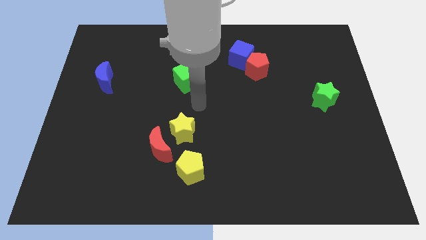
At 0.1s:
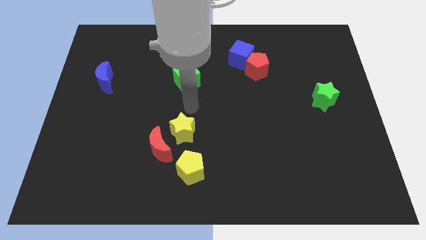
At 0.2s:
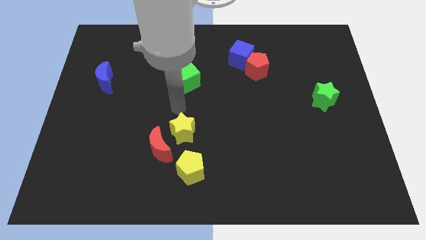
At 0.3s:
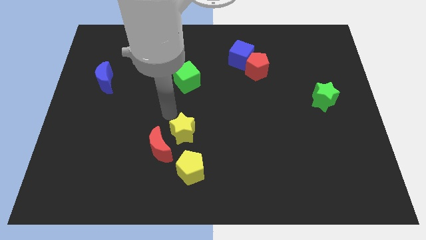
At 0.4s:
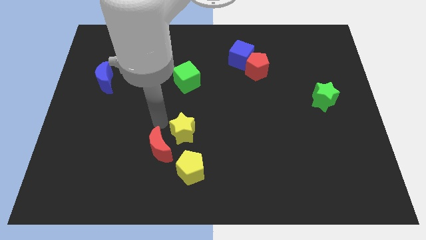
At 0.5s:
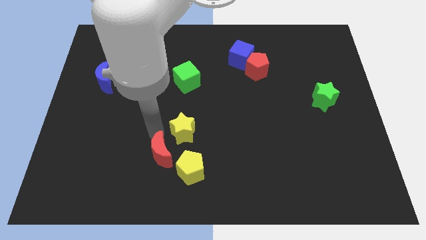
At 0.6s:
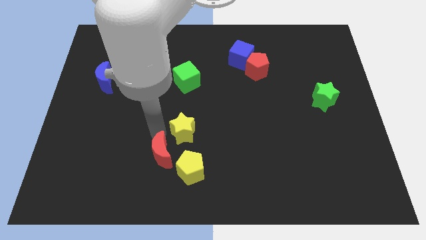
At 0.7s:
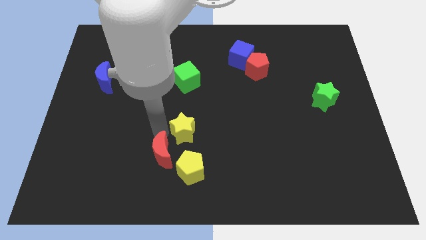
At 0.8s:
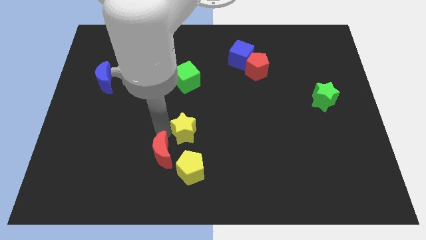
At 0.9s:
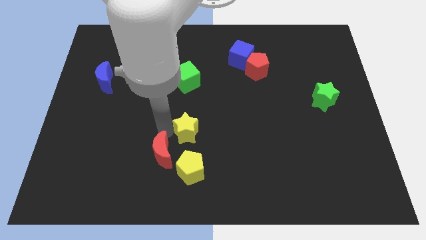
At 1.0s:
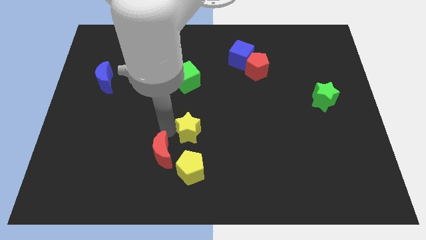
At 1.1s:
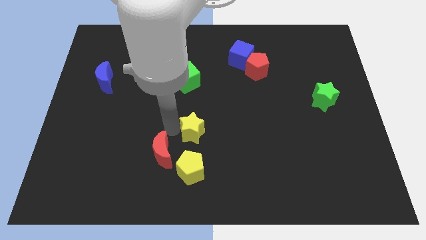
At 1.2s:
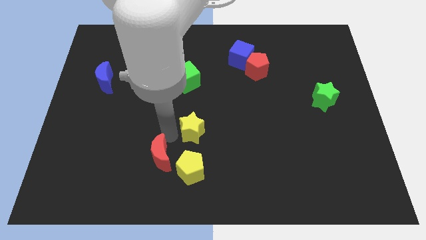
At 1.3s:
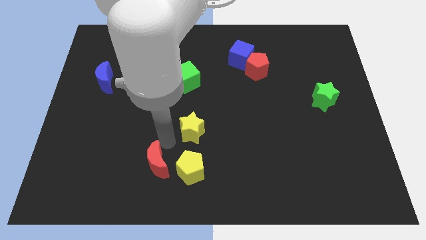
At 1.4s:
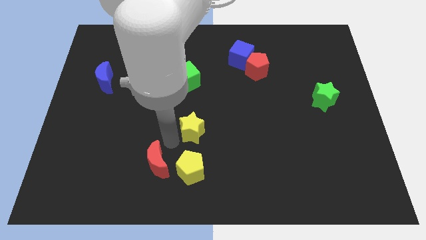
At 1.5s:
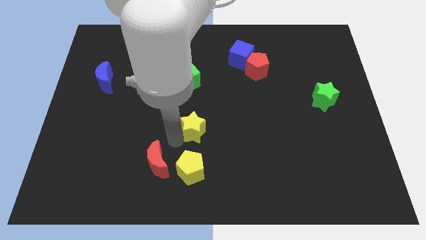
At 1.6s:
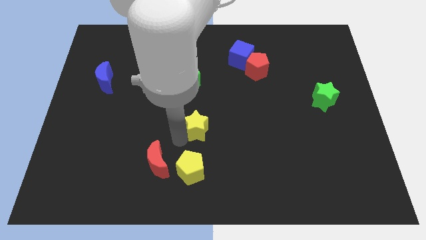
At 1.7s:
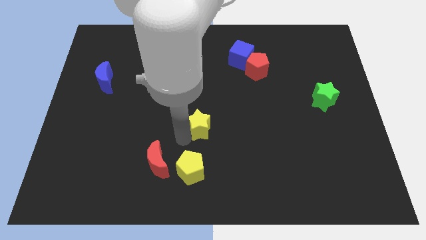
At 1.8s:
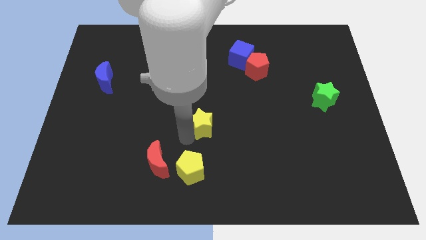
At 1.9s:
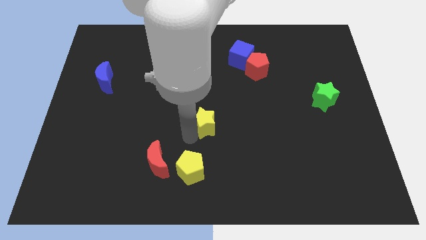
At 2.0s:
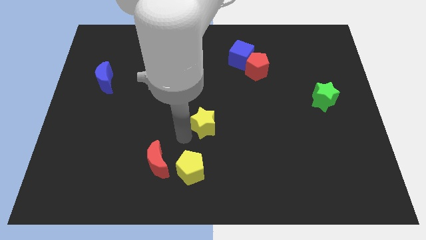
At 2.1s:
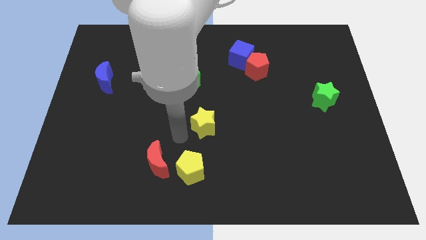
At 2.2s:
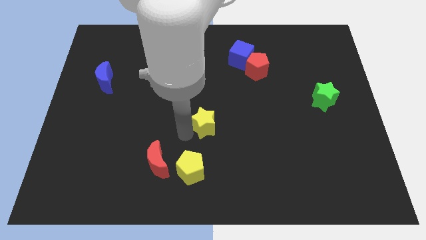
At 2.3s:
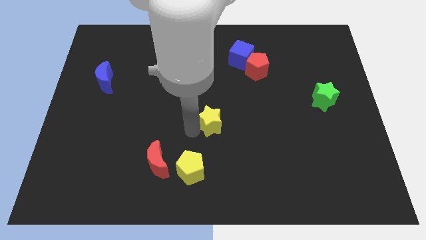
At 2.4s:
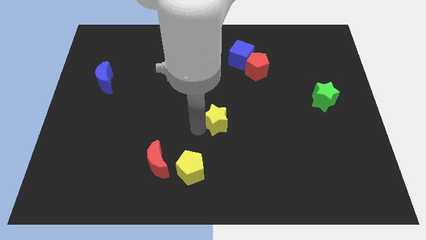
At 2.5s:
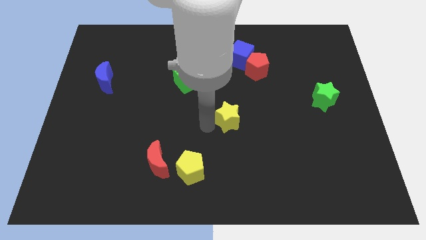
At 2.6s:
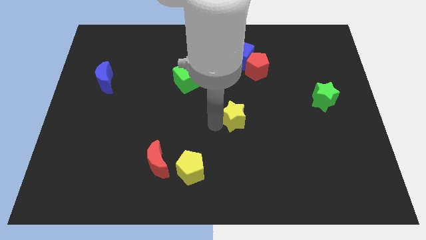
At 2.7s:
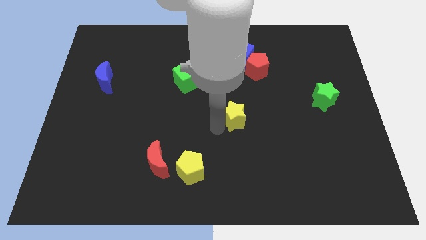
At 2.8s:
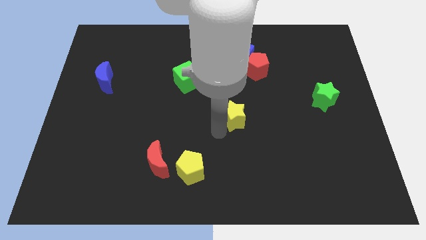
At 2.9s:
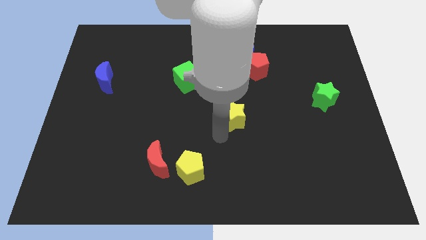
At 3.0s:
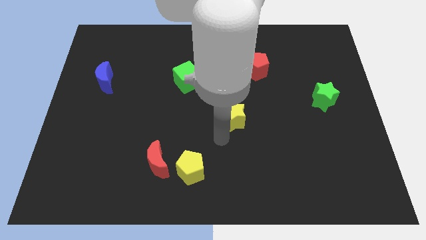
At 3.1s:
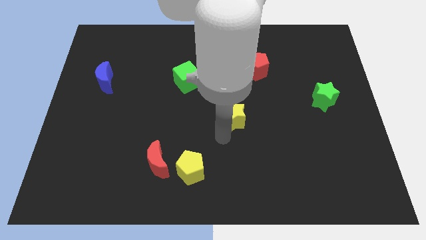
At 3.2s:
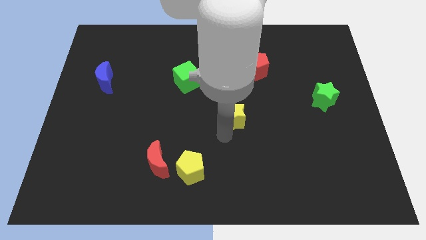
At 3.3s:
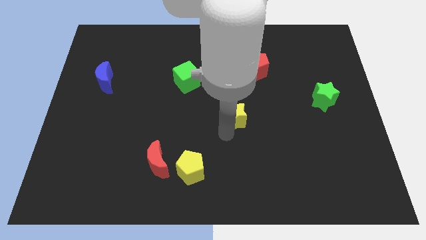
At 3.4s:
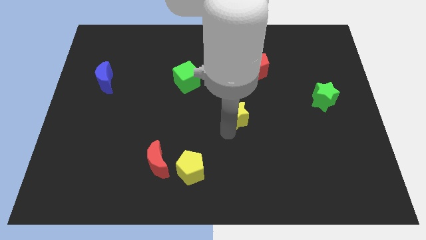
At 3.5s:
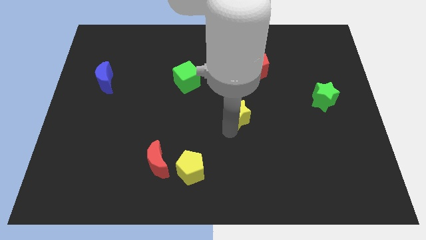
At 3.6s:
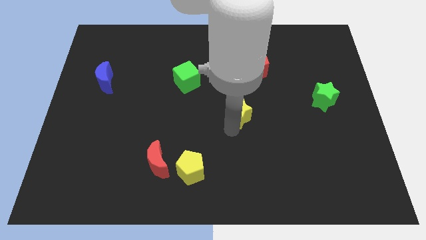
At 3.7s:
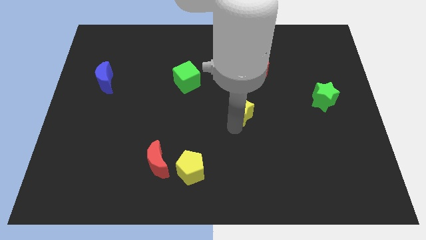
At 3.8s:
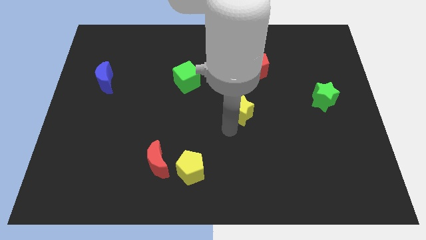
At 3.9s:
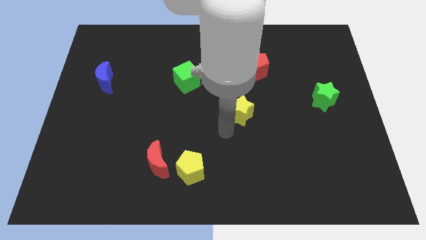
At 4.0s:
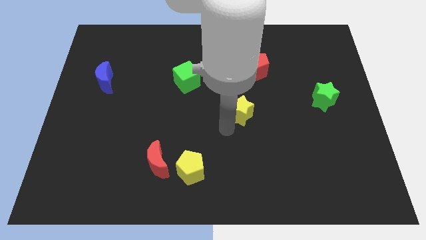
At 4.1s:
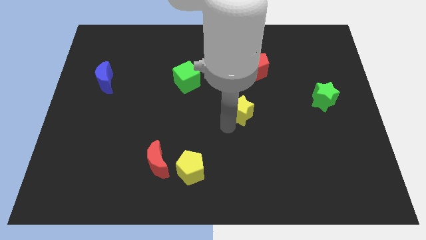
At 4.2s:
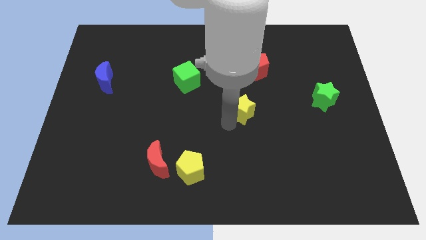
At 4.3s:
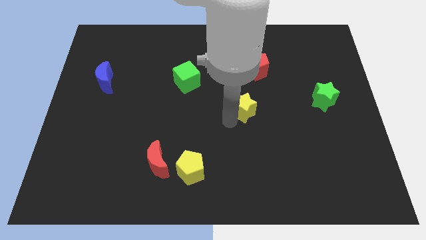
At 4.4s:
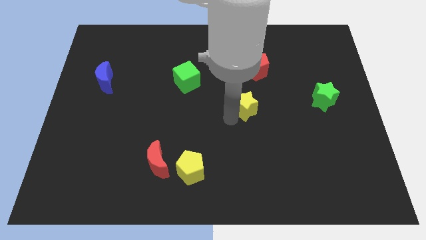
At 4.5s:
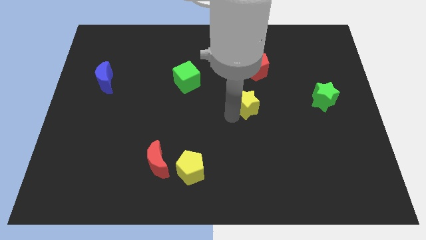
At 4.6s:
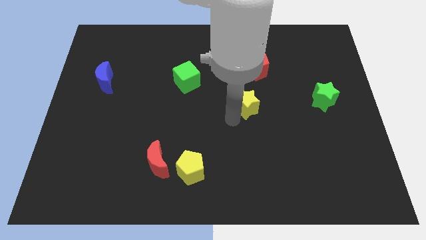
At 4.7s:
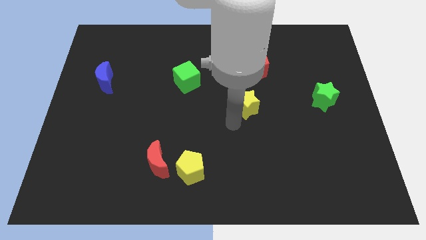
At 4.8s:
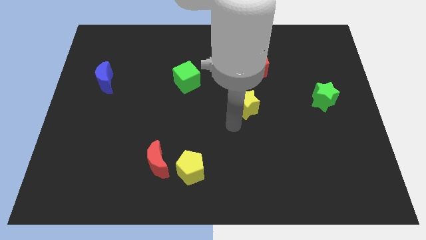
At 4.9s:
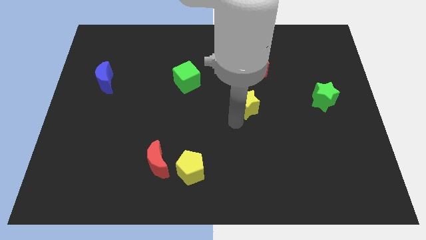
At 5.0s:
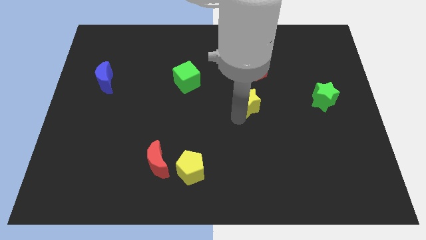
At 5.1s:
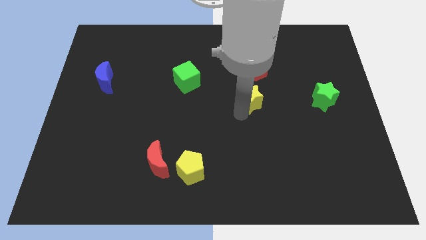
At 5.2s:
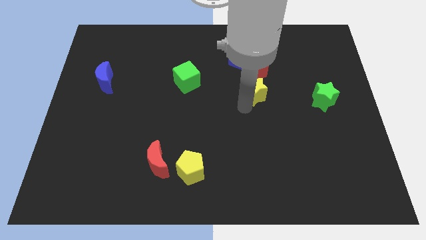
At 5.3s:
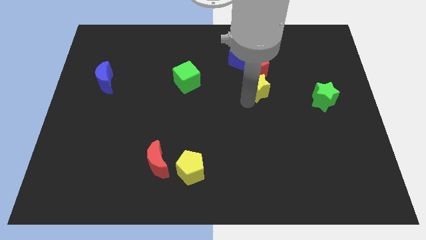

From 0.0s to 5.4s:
push the yellow star upwards and to the right diagonally

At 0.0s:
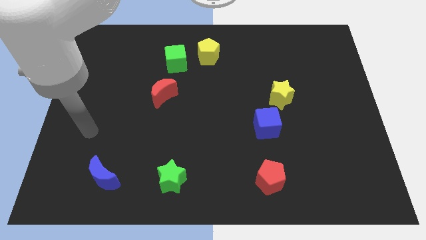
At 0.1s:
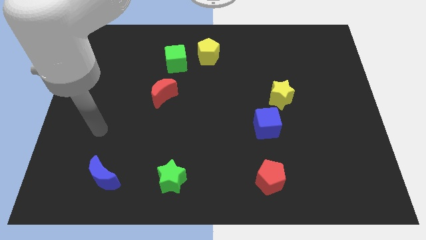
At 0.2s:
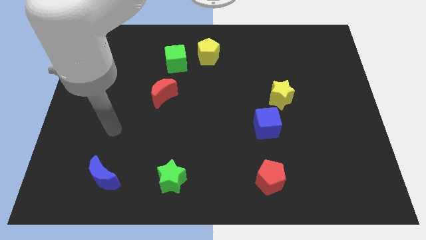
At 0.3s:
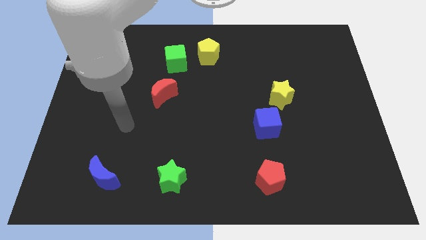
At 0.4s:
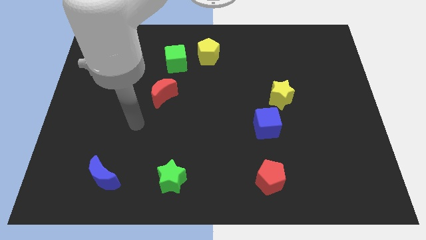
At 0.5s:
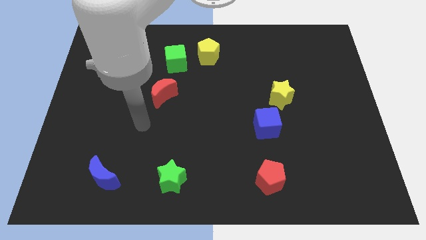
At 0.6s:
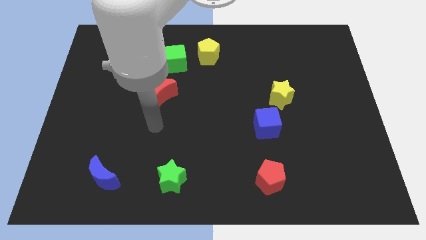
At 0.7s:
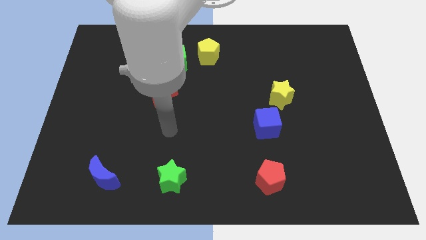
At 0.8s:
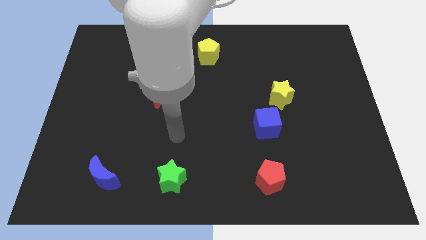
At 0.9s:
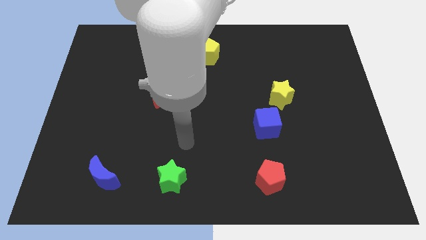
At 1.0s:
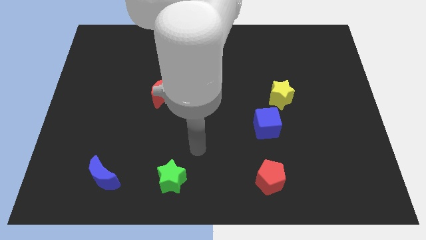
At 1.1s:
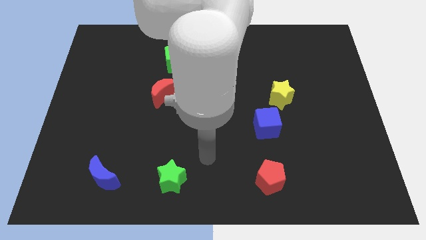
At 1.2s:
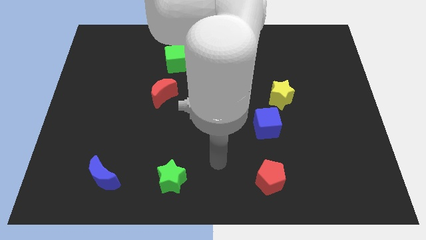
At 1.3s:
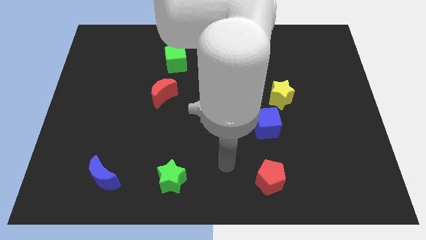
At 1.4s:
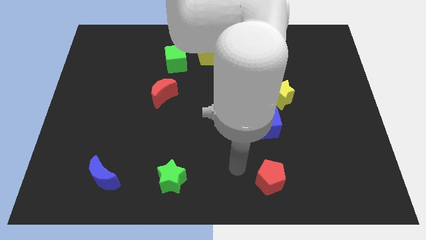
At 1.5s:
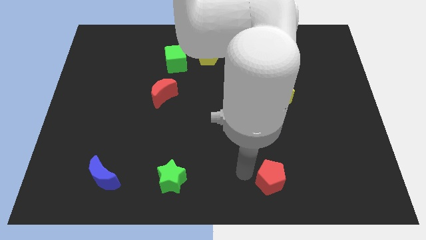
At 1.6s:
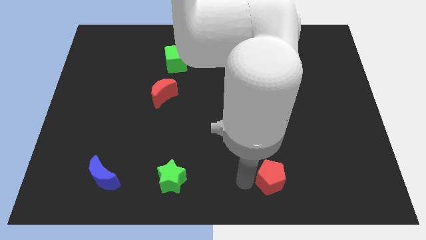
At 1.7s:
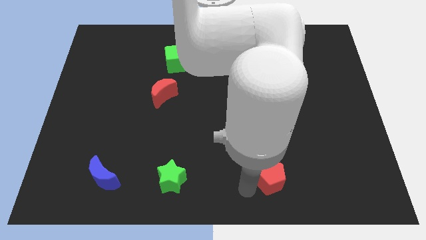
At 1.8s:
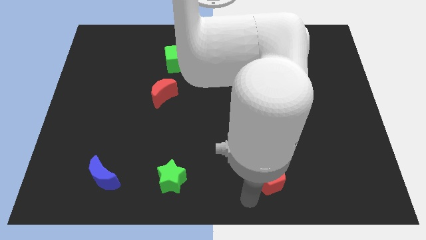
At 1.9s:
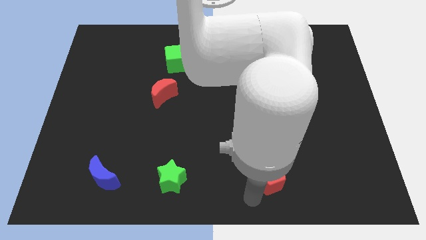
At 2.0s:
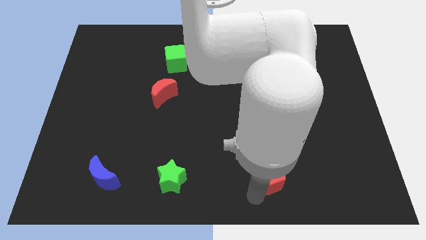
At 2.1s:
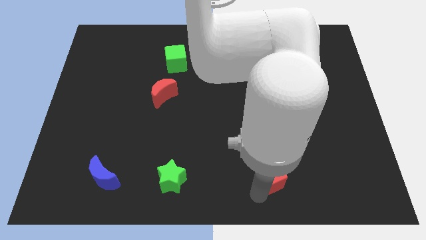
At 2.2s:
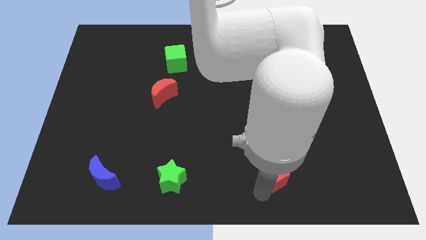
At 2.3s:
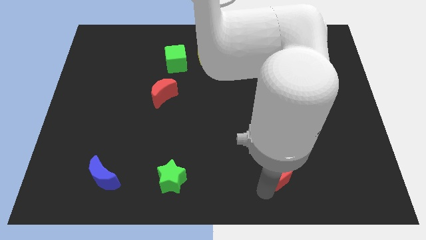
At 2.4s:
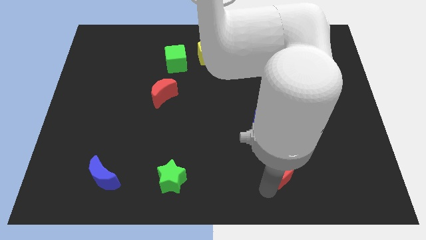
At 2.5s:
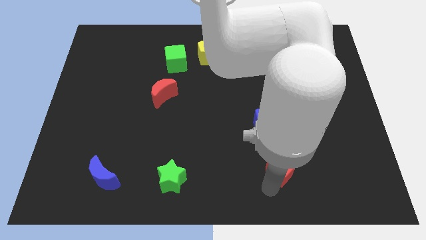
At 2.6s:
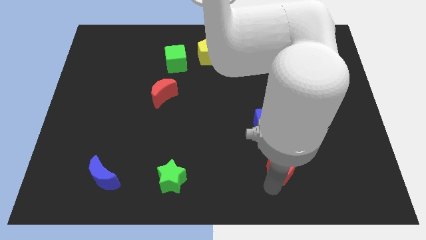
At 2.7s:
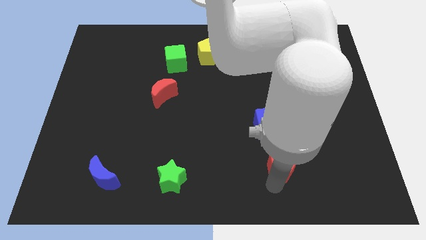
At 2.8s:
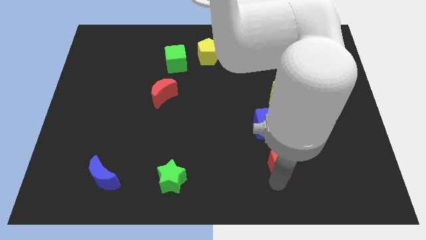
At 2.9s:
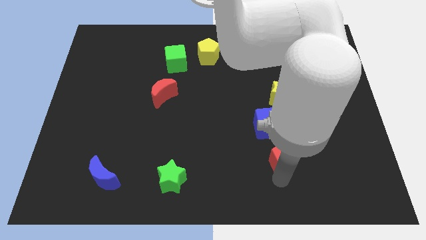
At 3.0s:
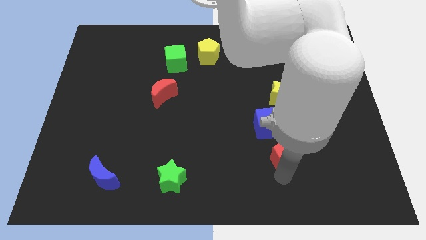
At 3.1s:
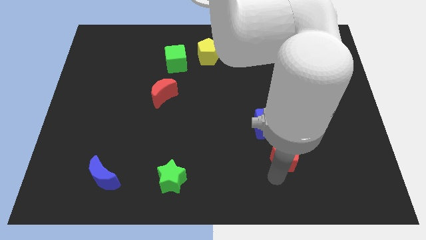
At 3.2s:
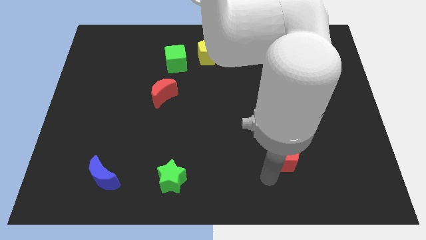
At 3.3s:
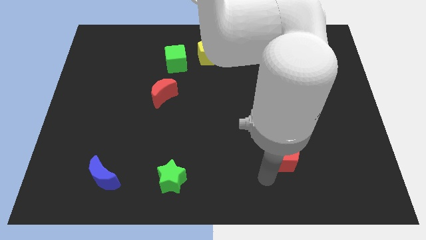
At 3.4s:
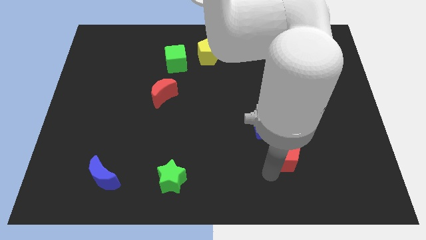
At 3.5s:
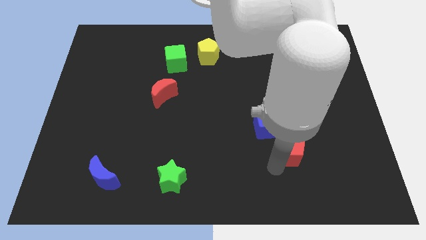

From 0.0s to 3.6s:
slide the red pentagon up and right diagonally slightly
